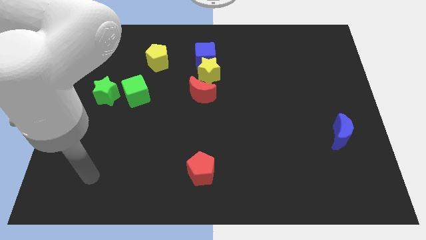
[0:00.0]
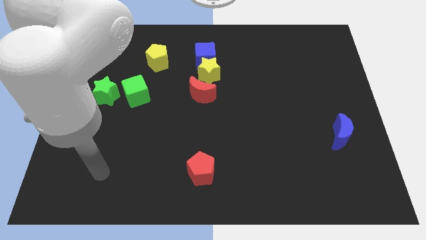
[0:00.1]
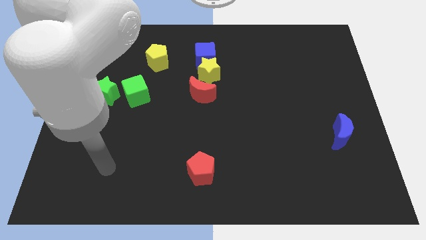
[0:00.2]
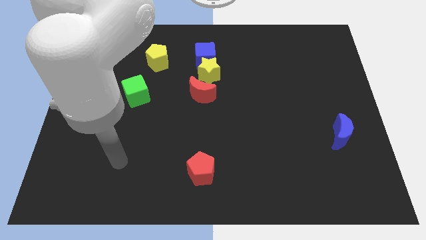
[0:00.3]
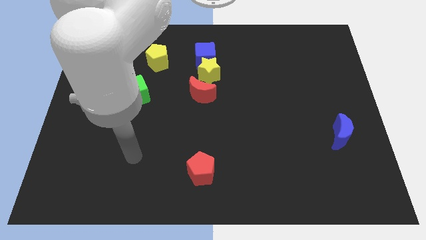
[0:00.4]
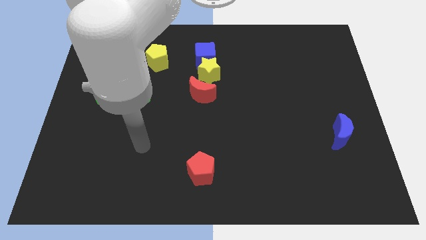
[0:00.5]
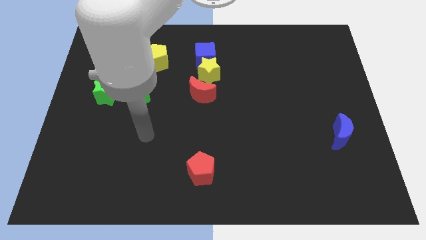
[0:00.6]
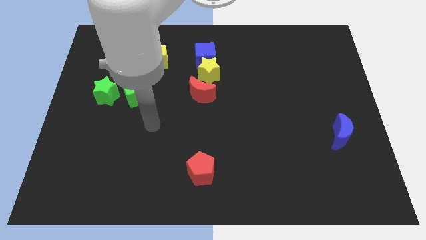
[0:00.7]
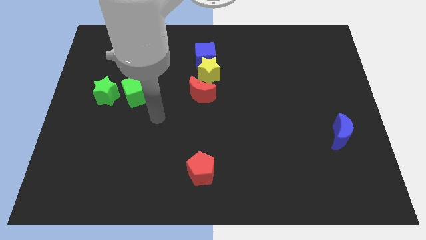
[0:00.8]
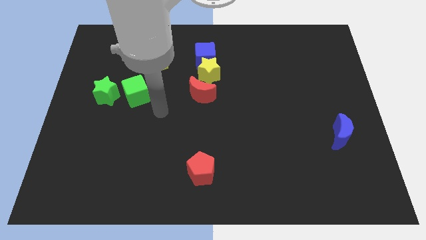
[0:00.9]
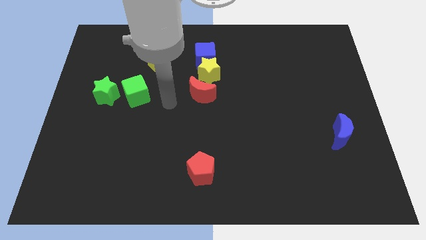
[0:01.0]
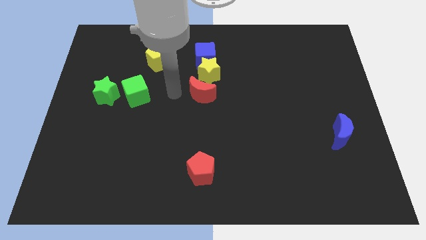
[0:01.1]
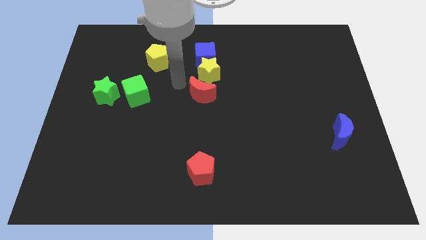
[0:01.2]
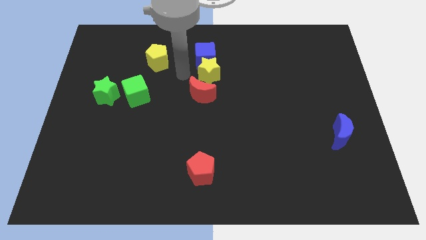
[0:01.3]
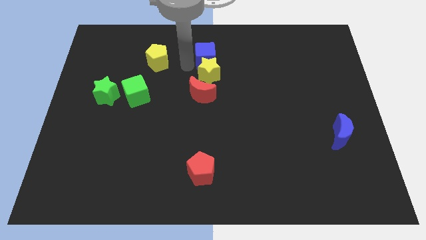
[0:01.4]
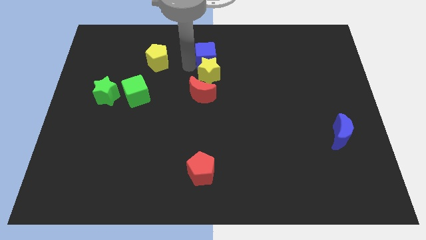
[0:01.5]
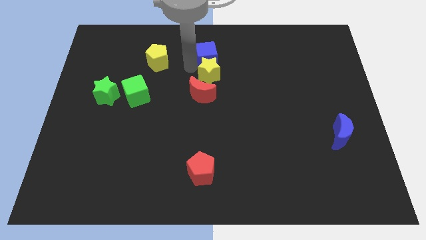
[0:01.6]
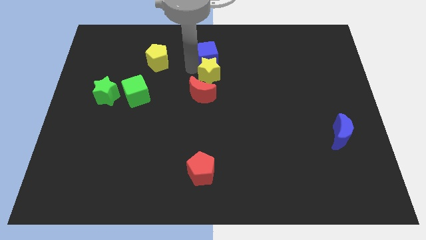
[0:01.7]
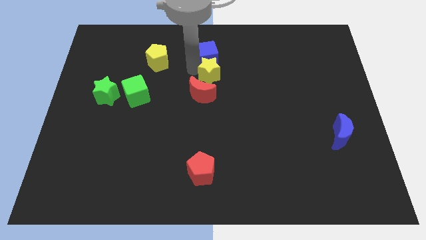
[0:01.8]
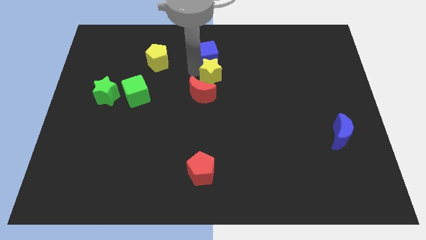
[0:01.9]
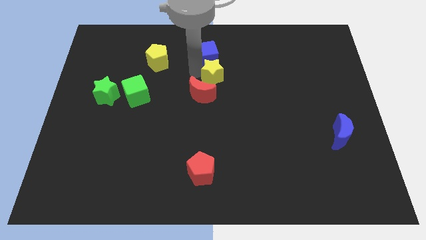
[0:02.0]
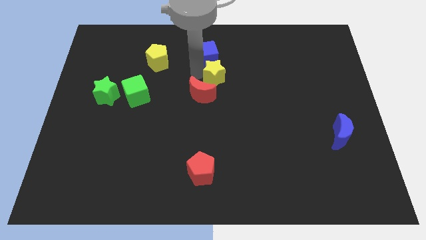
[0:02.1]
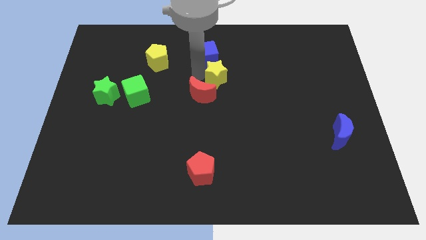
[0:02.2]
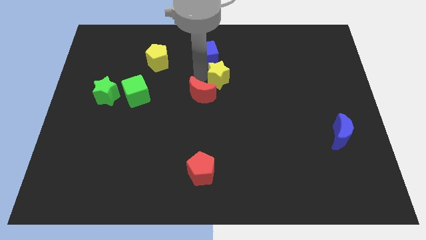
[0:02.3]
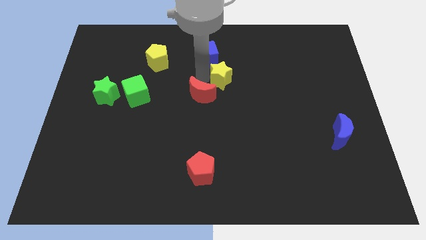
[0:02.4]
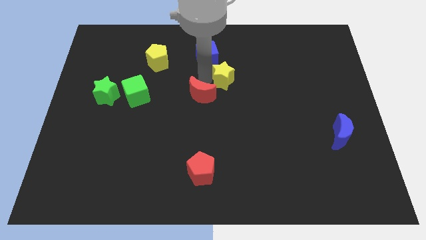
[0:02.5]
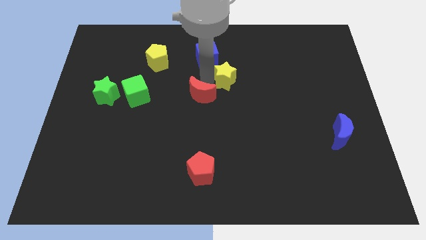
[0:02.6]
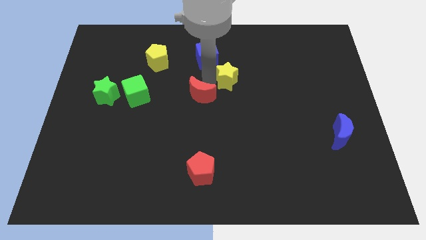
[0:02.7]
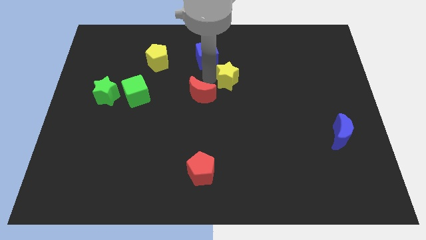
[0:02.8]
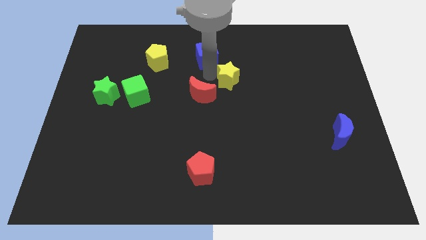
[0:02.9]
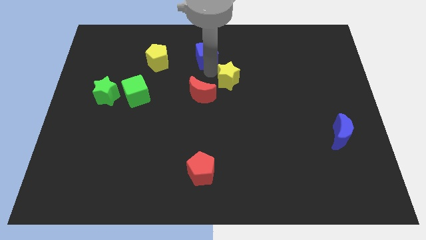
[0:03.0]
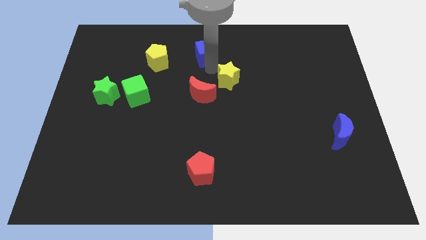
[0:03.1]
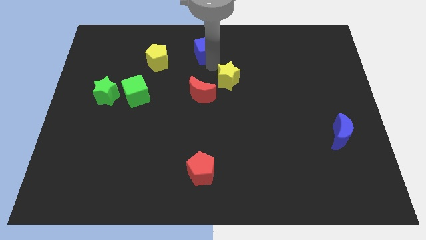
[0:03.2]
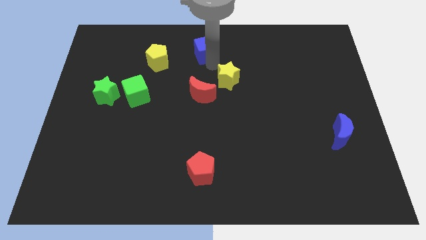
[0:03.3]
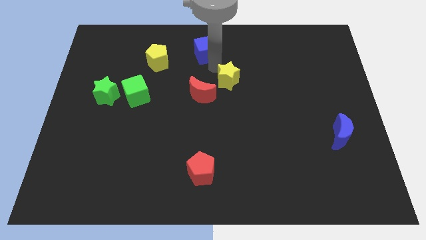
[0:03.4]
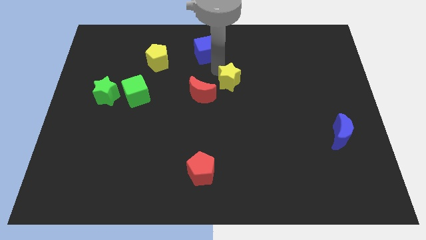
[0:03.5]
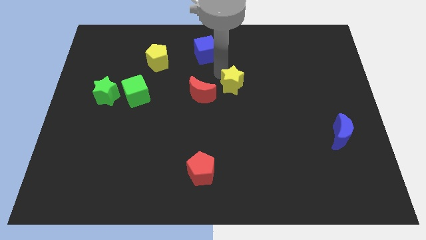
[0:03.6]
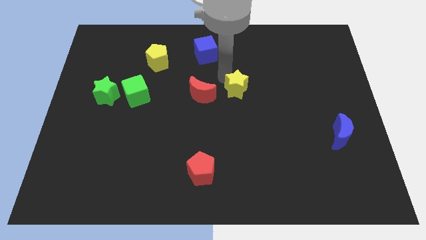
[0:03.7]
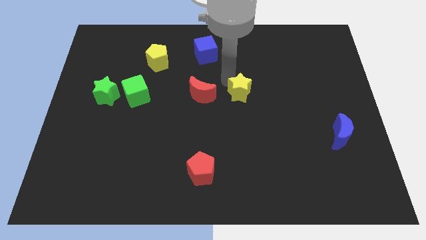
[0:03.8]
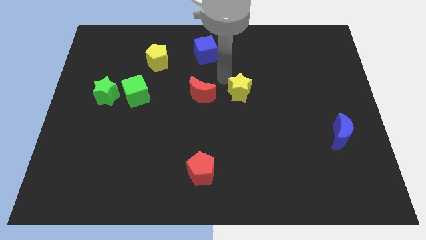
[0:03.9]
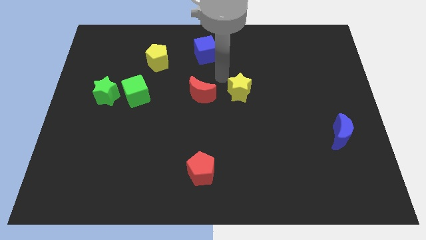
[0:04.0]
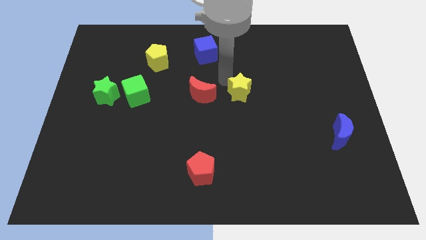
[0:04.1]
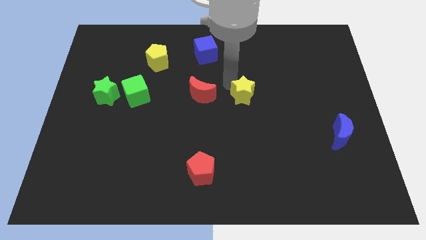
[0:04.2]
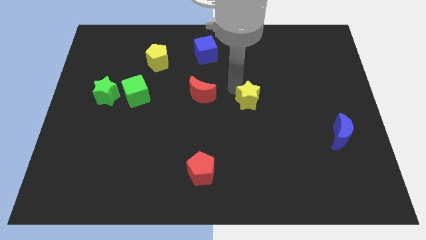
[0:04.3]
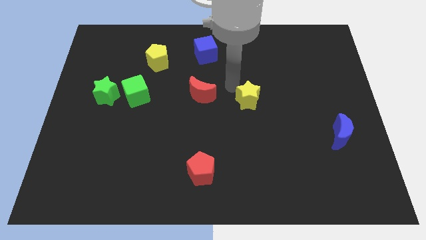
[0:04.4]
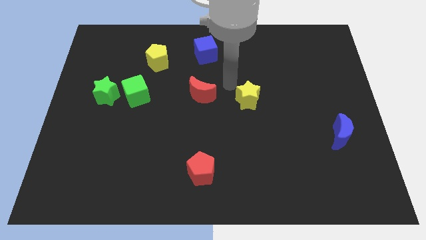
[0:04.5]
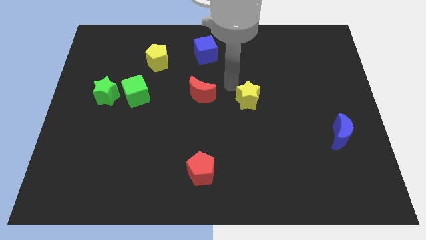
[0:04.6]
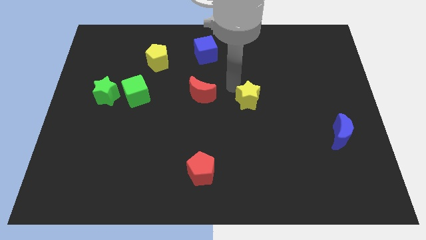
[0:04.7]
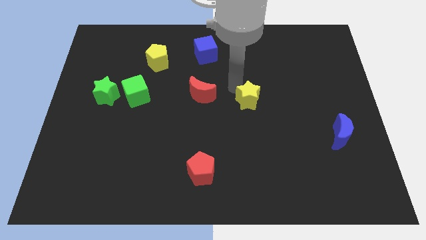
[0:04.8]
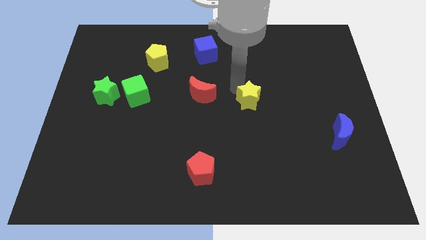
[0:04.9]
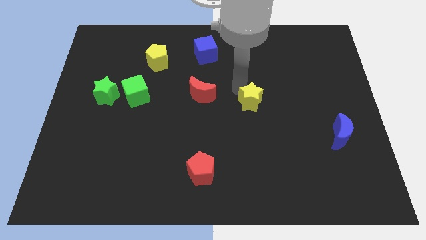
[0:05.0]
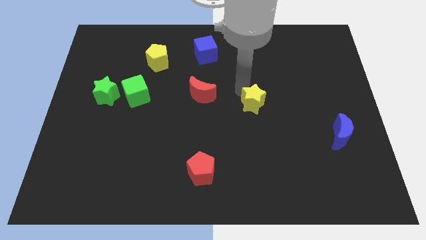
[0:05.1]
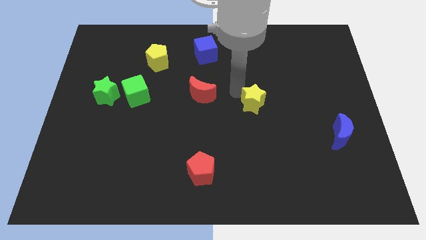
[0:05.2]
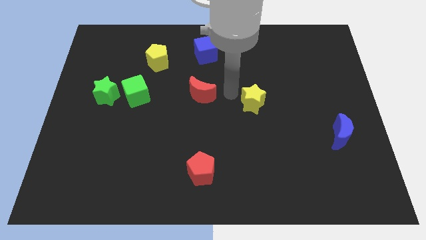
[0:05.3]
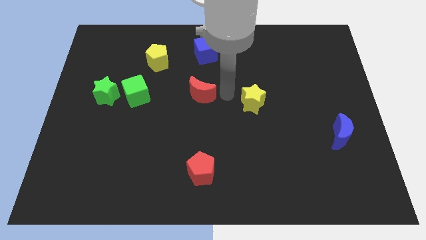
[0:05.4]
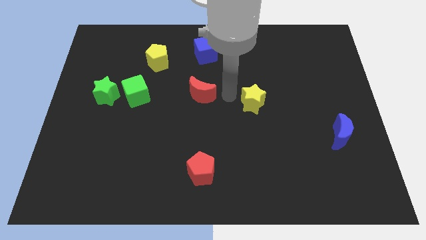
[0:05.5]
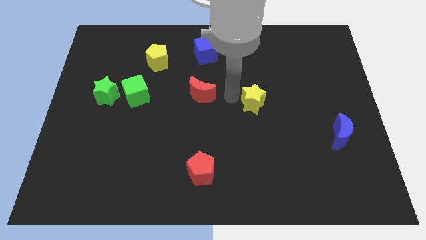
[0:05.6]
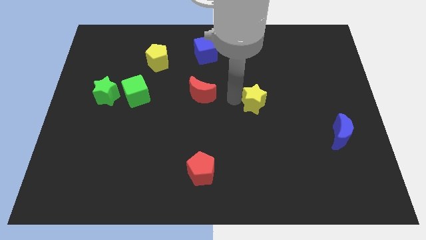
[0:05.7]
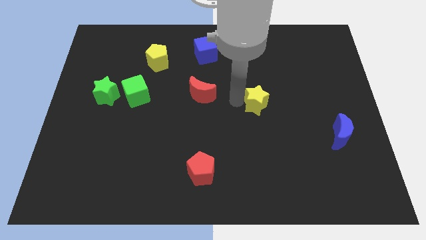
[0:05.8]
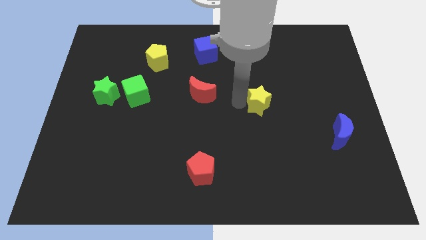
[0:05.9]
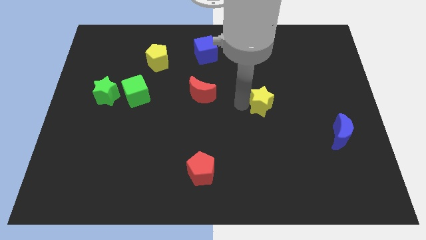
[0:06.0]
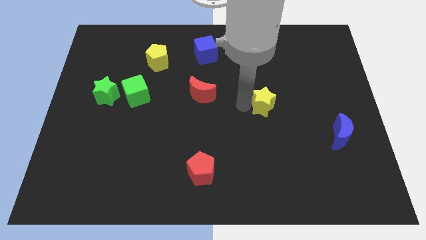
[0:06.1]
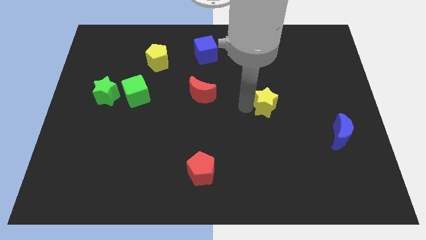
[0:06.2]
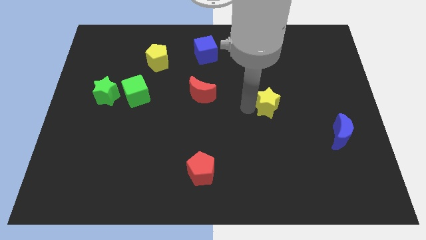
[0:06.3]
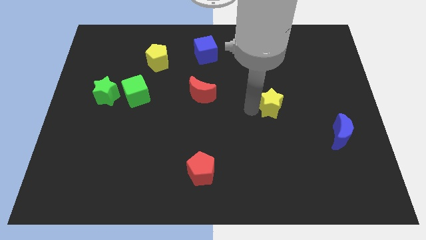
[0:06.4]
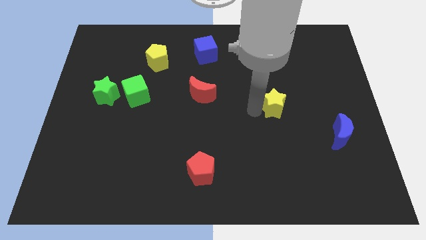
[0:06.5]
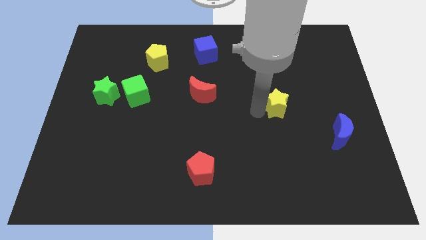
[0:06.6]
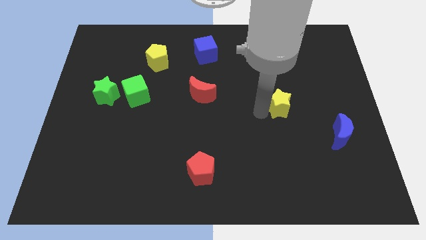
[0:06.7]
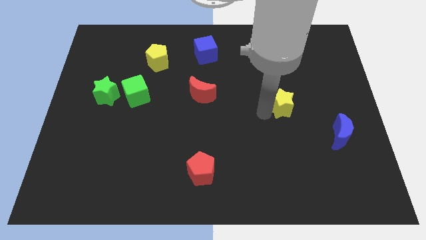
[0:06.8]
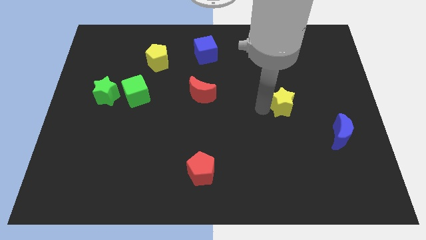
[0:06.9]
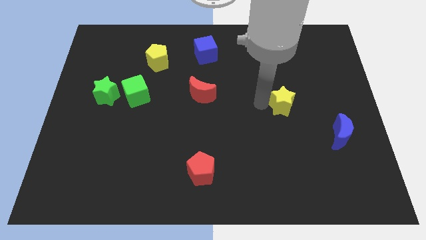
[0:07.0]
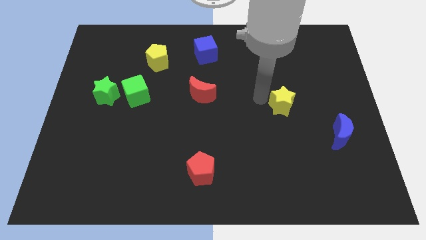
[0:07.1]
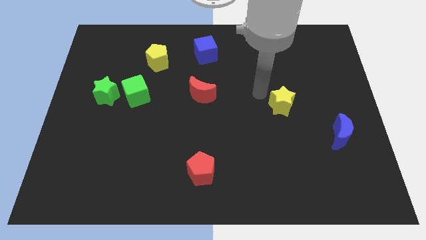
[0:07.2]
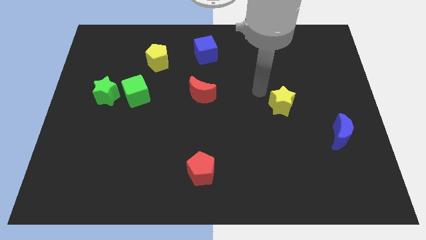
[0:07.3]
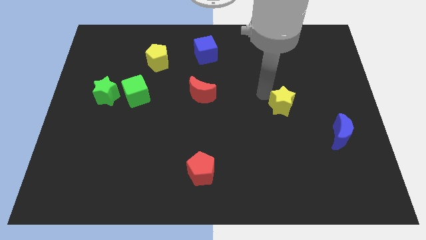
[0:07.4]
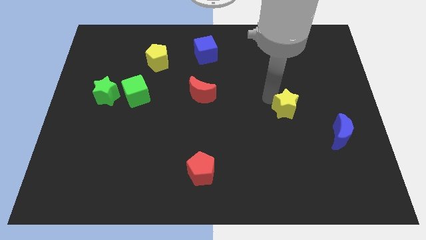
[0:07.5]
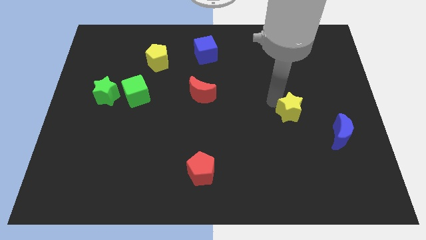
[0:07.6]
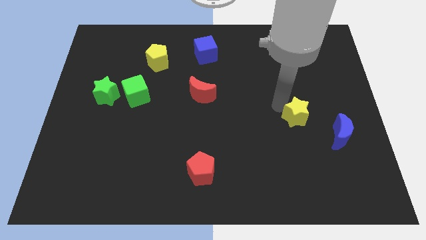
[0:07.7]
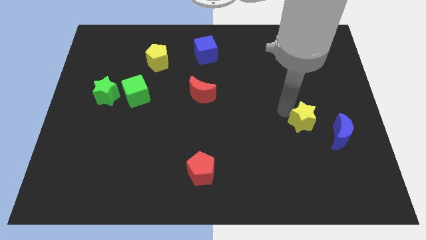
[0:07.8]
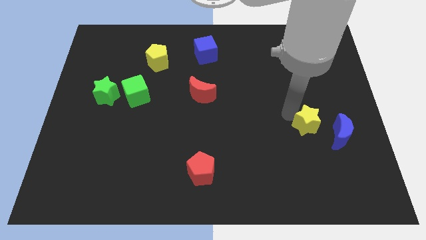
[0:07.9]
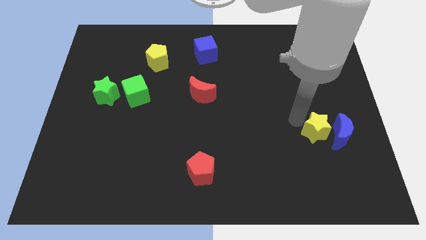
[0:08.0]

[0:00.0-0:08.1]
put the yellow star towards the blue moon
